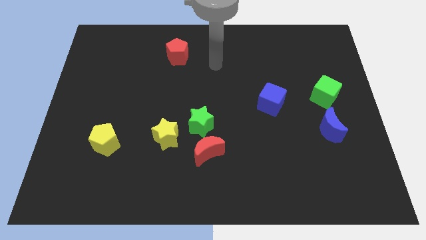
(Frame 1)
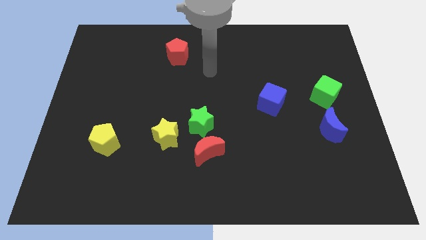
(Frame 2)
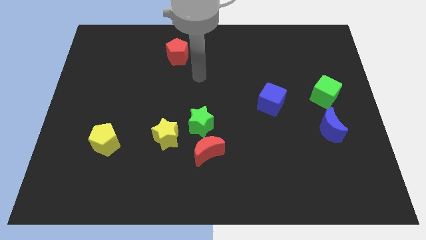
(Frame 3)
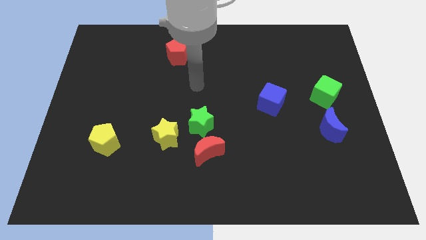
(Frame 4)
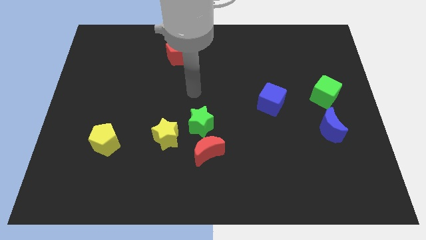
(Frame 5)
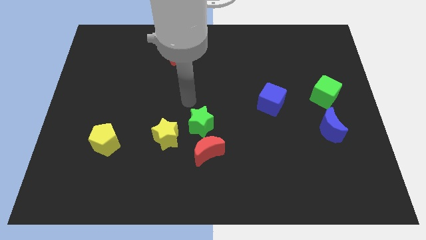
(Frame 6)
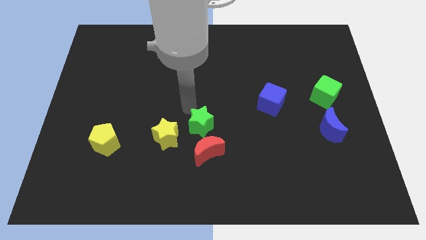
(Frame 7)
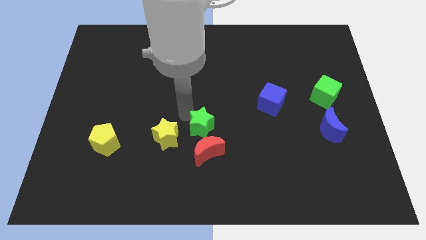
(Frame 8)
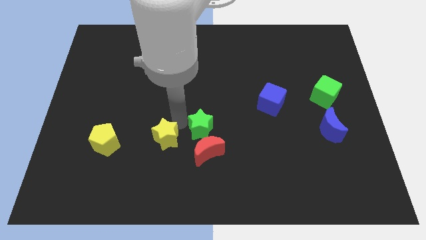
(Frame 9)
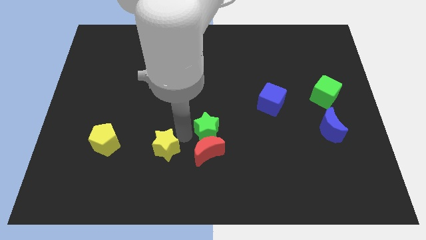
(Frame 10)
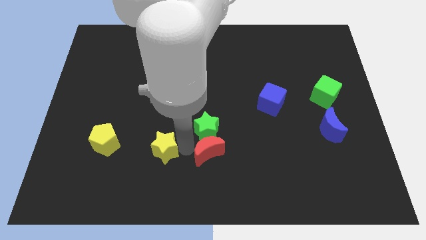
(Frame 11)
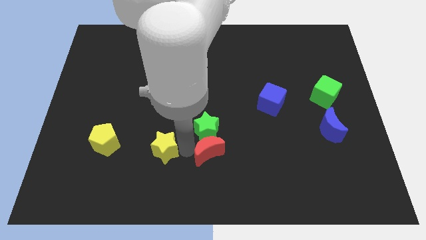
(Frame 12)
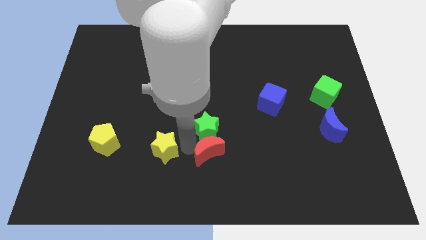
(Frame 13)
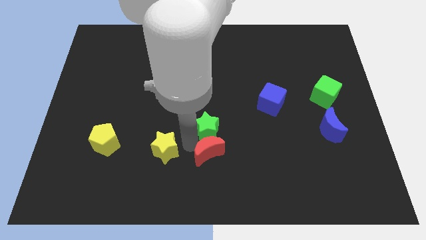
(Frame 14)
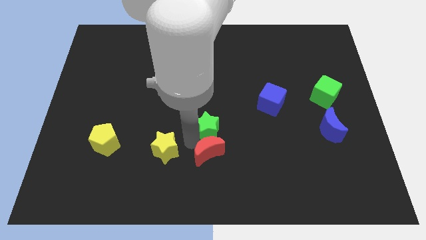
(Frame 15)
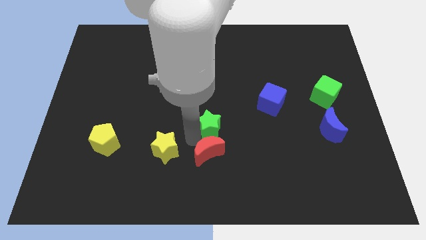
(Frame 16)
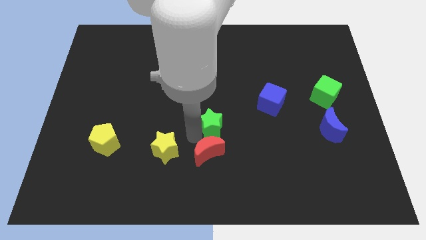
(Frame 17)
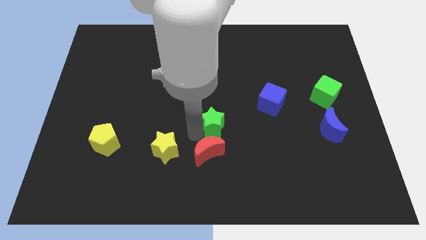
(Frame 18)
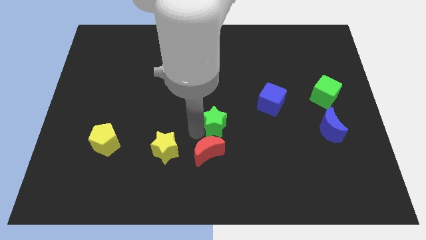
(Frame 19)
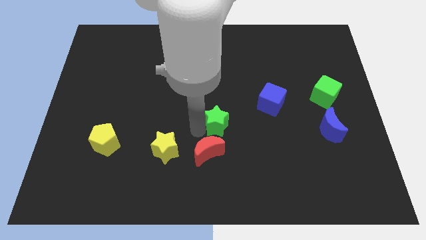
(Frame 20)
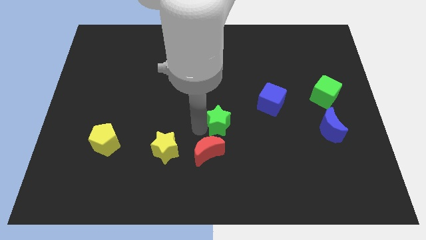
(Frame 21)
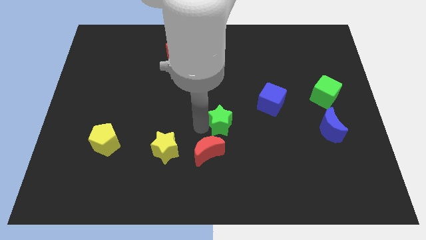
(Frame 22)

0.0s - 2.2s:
separate the green star from the red moon and yellow star

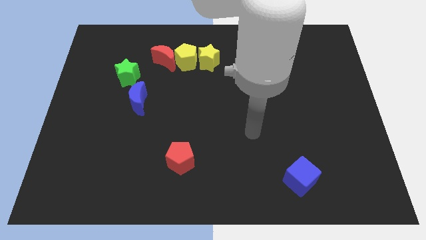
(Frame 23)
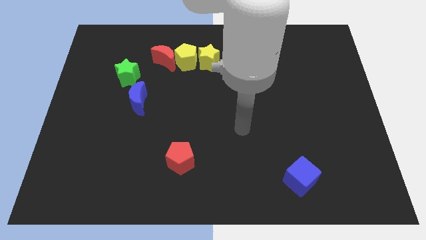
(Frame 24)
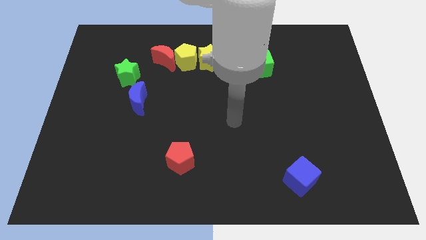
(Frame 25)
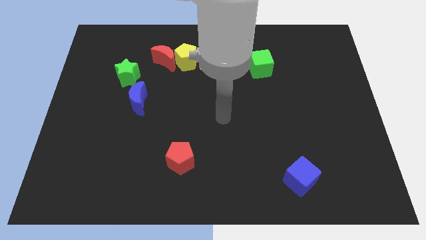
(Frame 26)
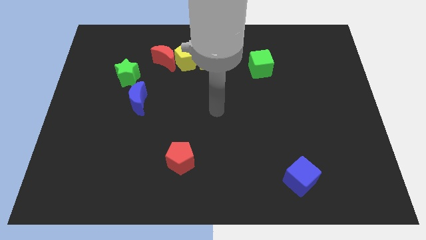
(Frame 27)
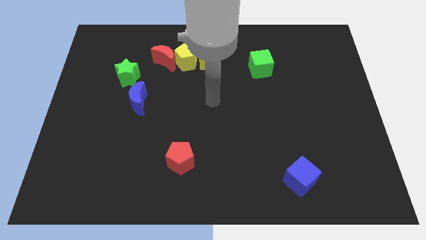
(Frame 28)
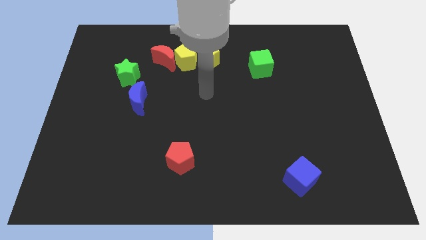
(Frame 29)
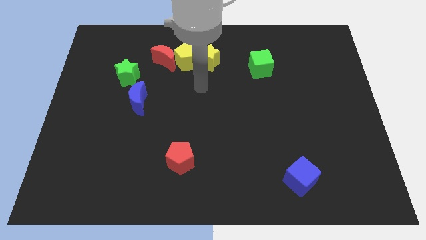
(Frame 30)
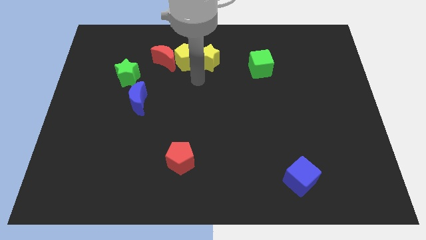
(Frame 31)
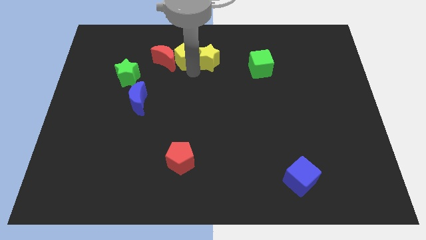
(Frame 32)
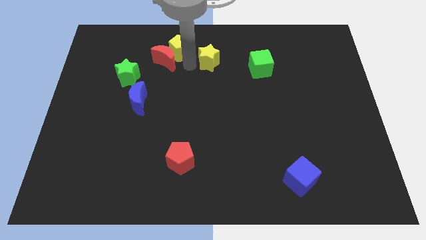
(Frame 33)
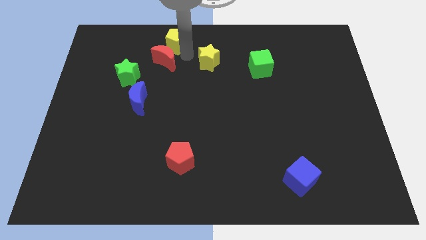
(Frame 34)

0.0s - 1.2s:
move the yellow star away from the yellow pentagon

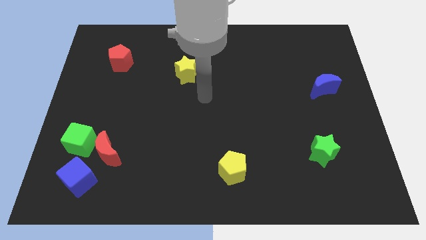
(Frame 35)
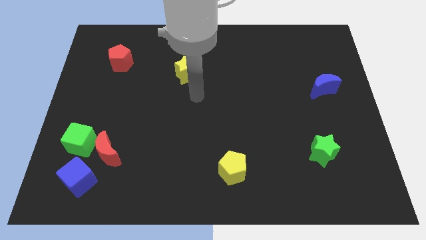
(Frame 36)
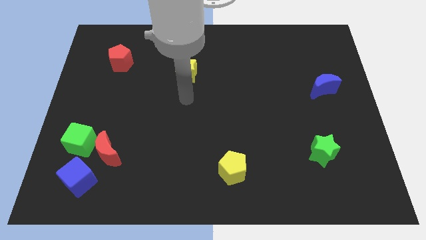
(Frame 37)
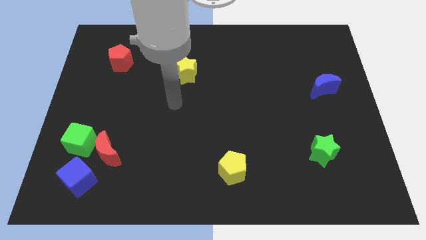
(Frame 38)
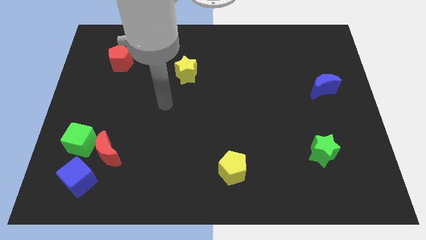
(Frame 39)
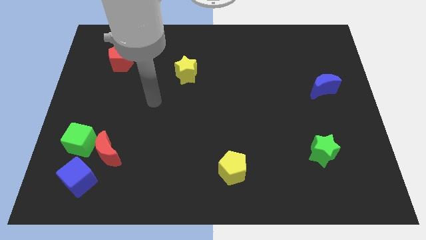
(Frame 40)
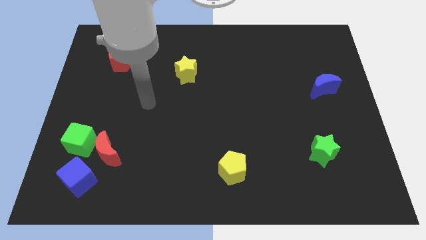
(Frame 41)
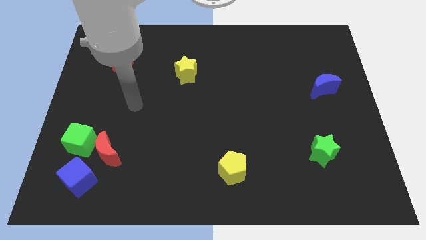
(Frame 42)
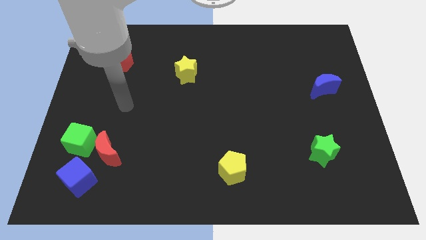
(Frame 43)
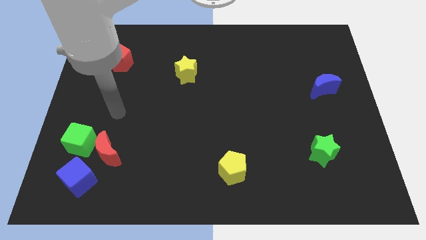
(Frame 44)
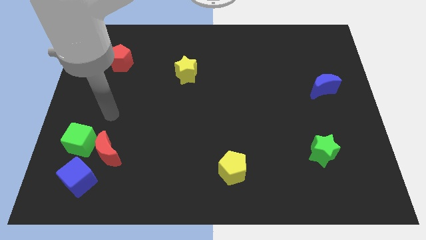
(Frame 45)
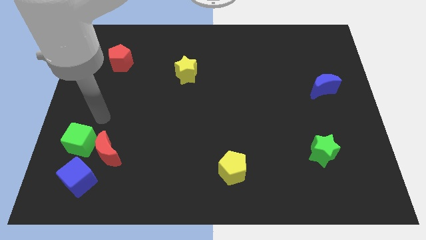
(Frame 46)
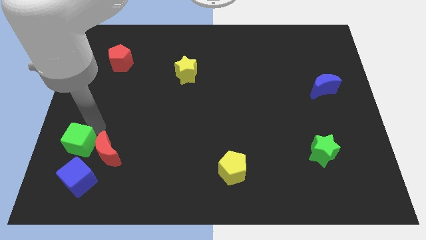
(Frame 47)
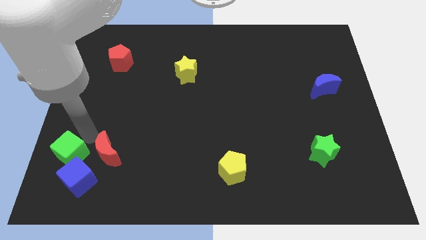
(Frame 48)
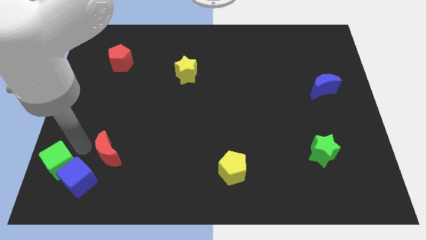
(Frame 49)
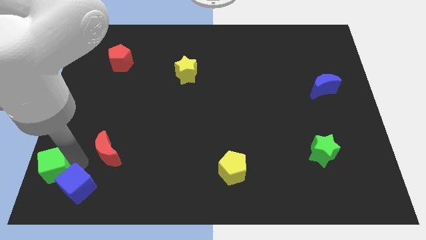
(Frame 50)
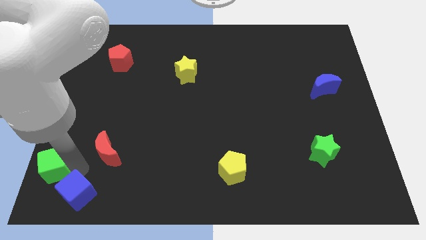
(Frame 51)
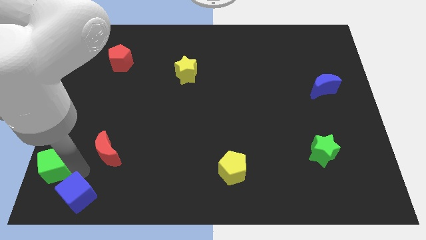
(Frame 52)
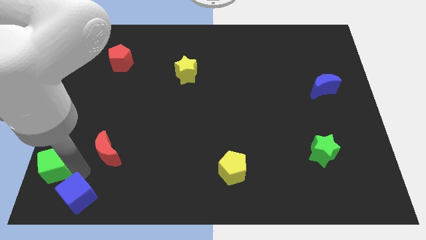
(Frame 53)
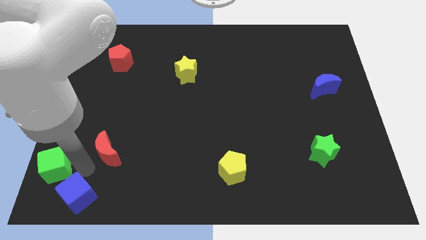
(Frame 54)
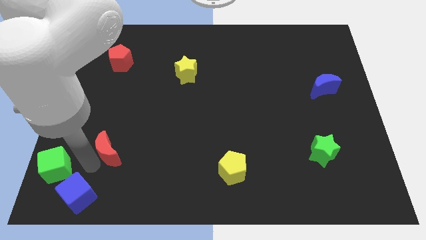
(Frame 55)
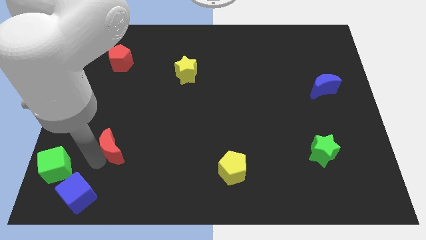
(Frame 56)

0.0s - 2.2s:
separate the red moon from the green cube and blue cube

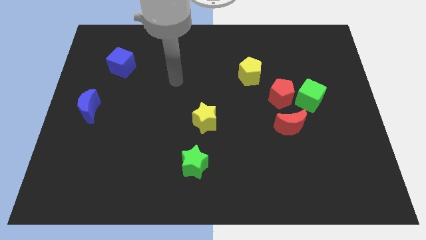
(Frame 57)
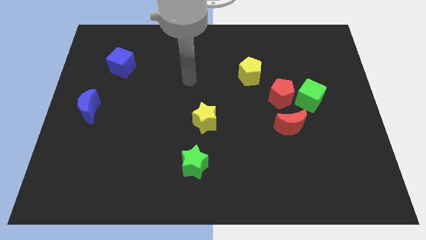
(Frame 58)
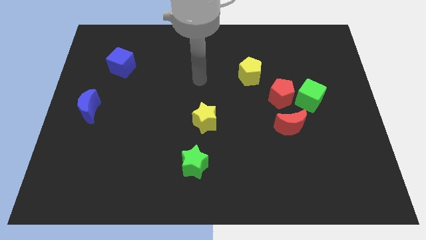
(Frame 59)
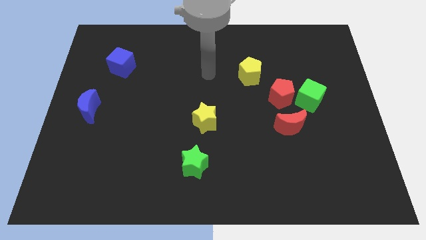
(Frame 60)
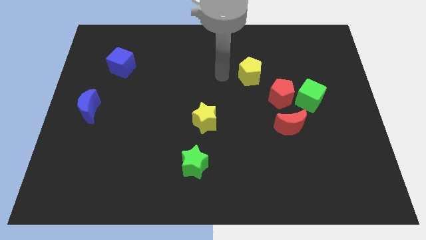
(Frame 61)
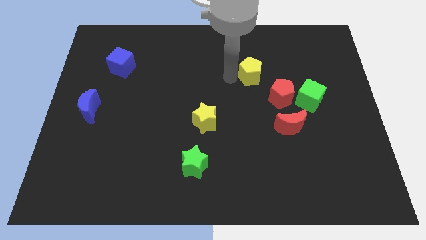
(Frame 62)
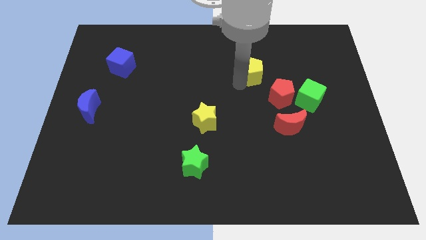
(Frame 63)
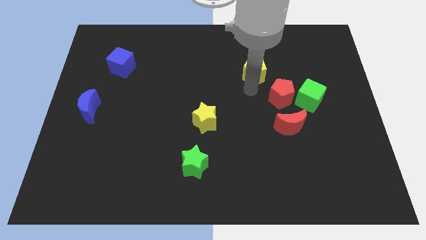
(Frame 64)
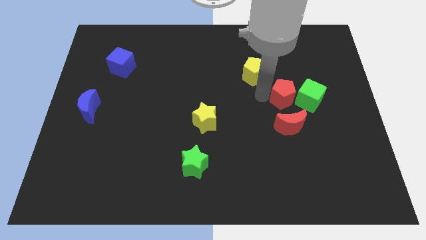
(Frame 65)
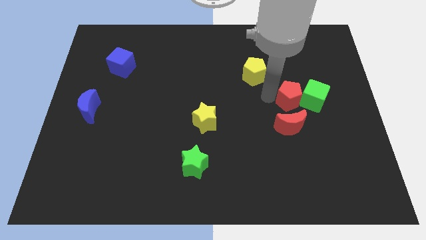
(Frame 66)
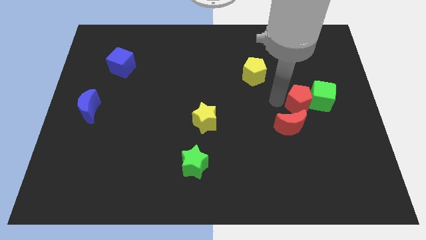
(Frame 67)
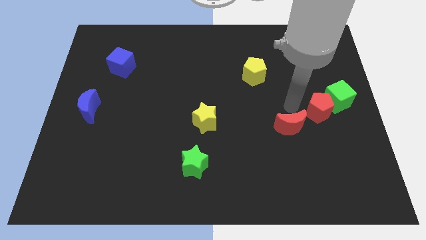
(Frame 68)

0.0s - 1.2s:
pull the green cube apart from the red pentagon and red moon

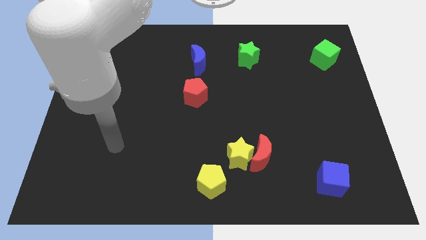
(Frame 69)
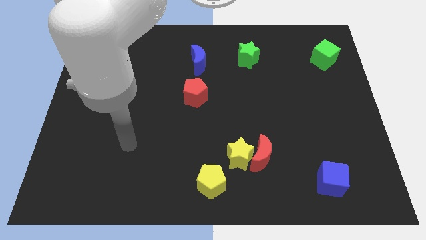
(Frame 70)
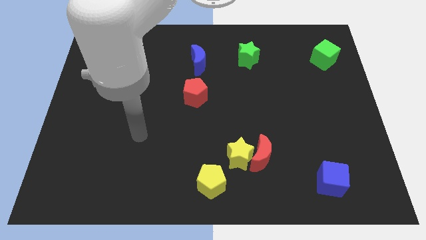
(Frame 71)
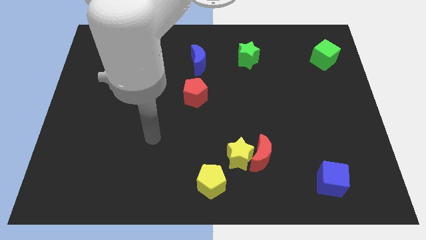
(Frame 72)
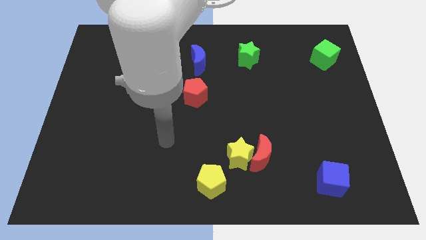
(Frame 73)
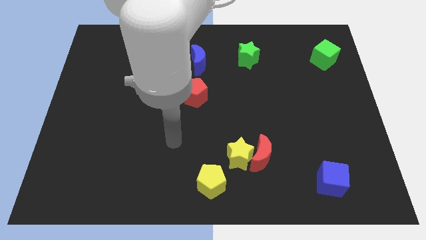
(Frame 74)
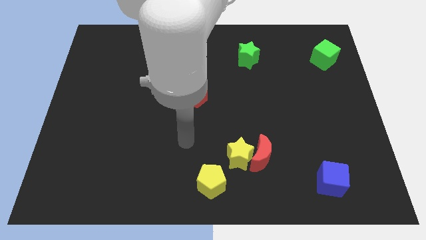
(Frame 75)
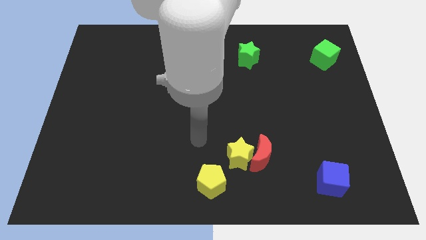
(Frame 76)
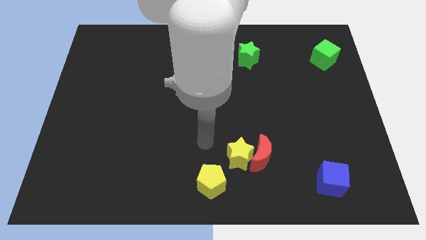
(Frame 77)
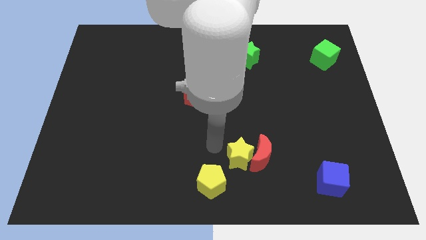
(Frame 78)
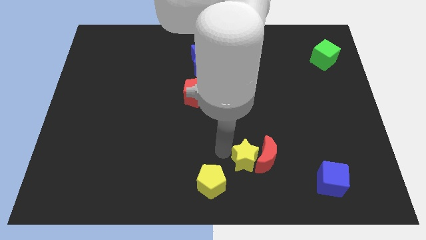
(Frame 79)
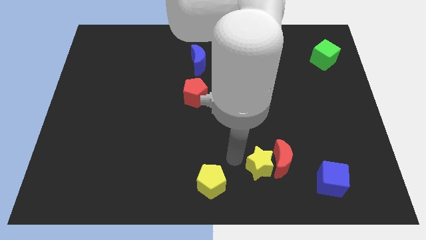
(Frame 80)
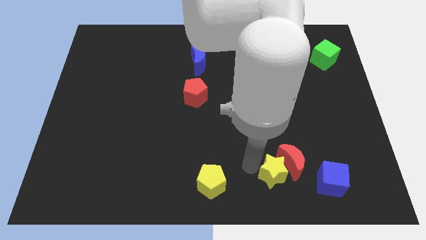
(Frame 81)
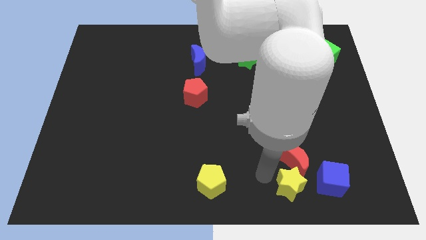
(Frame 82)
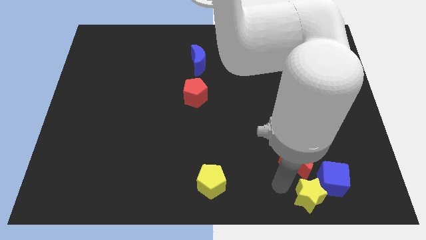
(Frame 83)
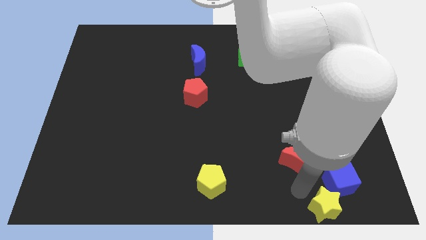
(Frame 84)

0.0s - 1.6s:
pull the red moon apart from the yellow star

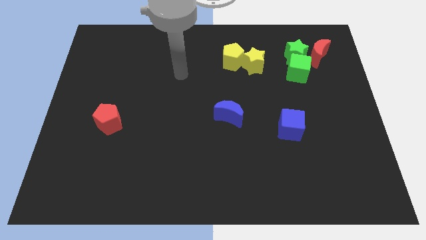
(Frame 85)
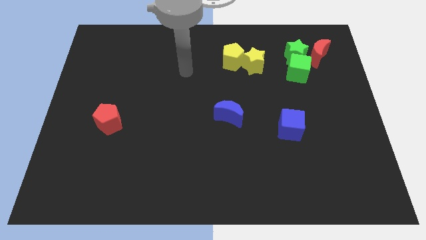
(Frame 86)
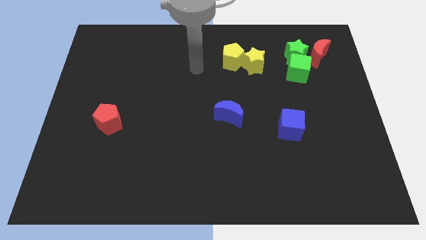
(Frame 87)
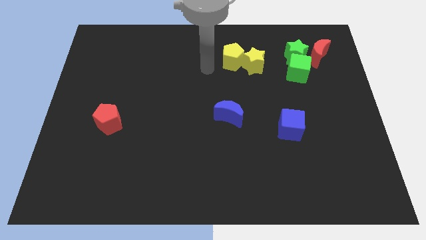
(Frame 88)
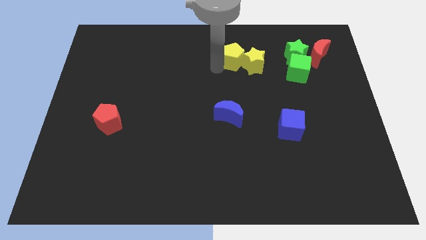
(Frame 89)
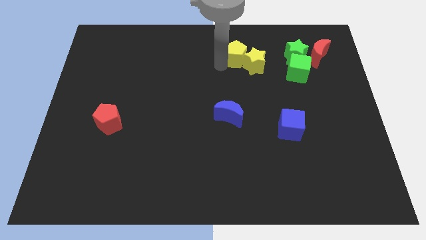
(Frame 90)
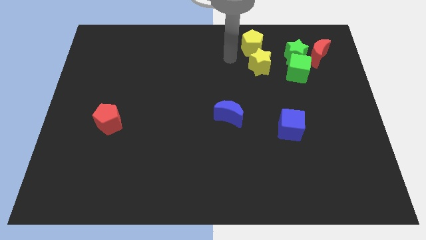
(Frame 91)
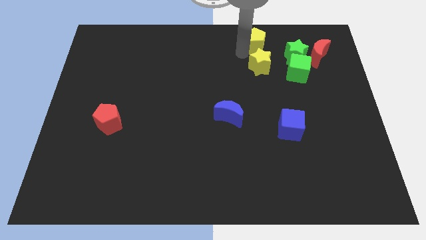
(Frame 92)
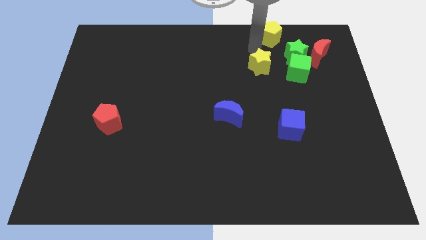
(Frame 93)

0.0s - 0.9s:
pull the yellow star apart from the yellow pentagon
